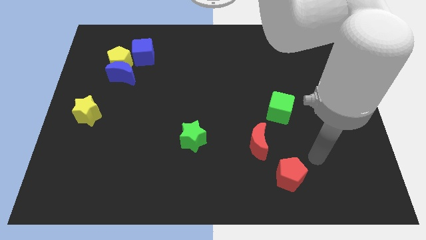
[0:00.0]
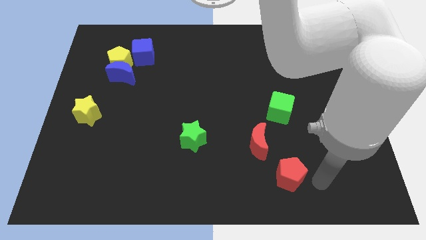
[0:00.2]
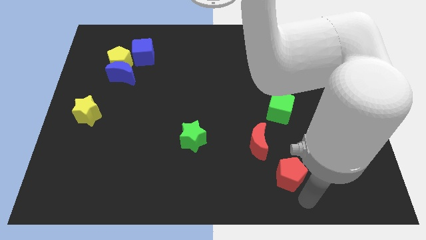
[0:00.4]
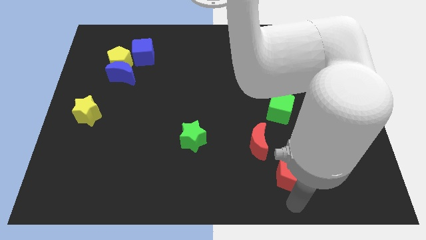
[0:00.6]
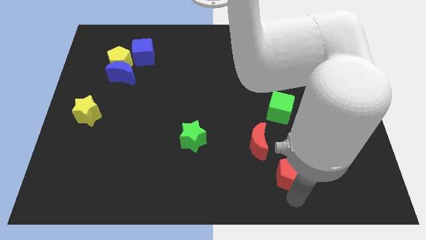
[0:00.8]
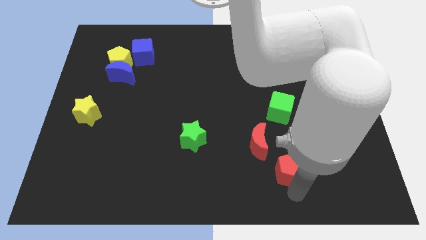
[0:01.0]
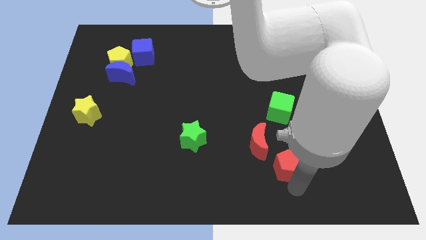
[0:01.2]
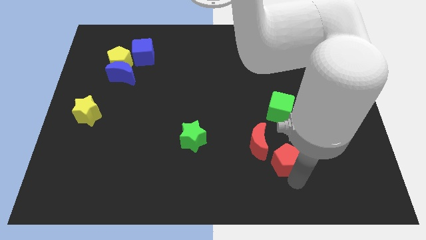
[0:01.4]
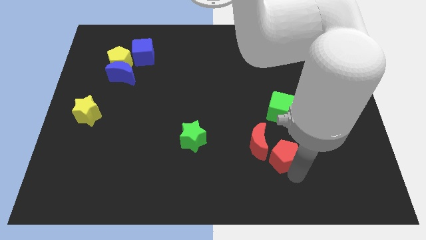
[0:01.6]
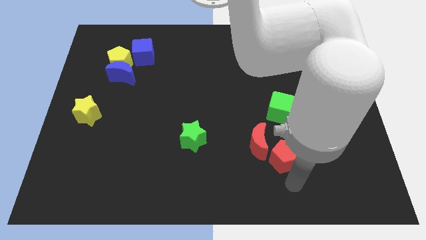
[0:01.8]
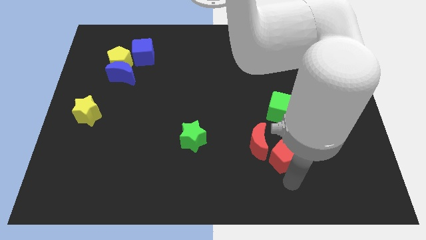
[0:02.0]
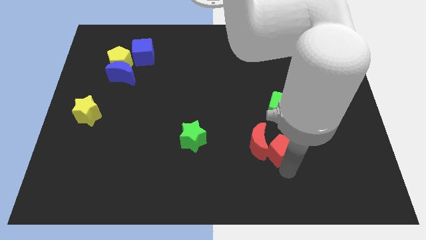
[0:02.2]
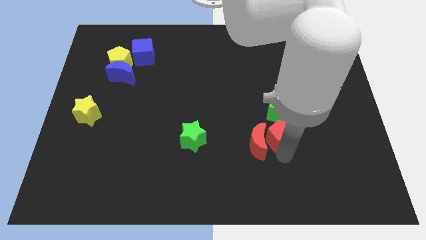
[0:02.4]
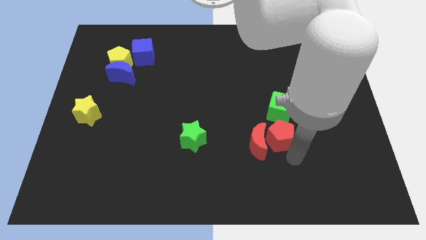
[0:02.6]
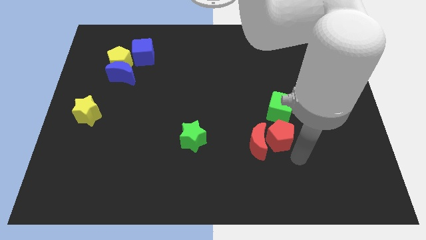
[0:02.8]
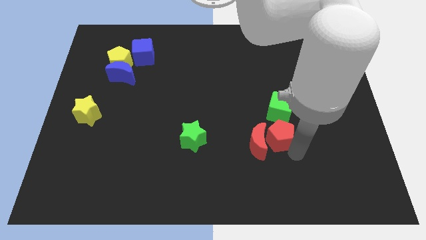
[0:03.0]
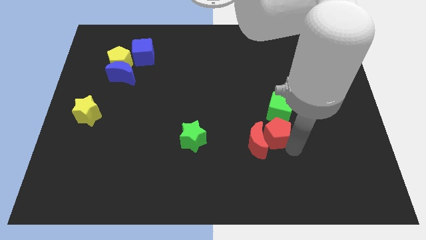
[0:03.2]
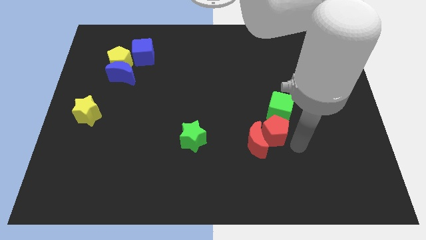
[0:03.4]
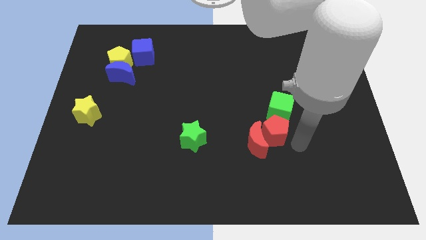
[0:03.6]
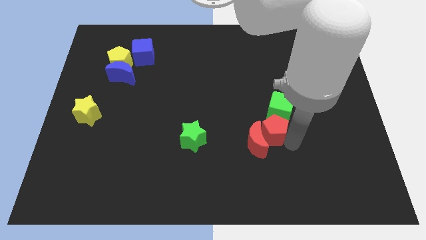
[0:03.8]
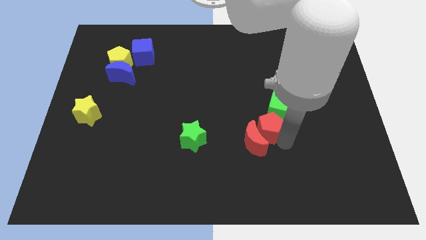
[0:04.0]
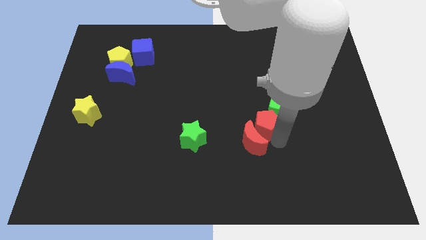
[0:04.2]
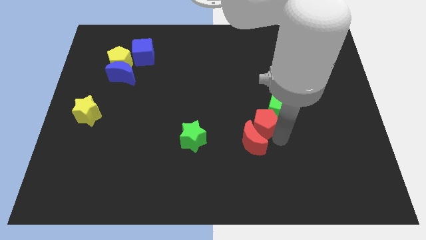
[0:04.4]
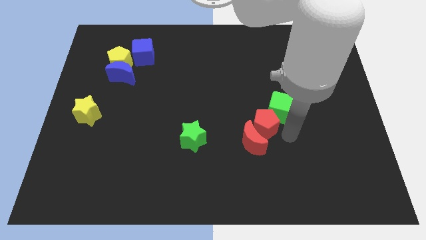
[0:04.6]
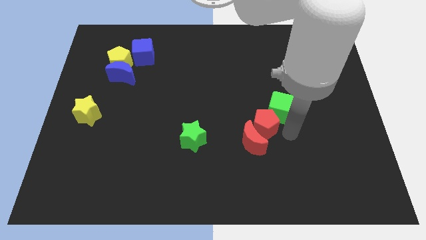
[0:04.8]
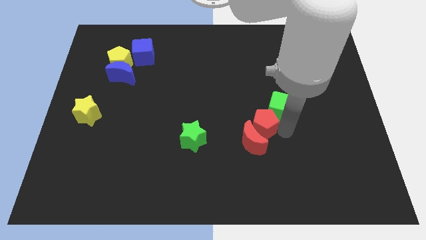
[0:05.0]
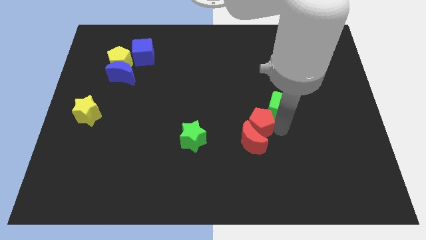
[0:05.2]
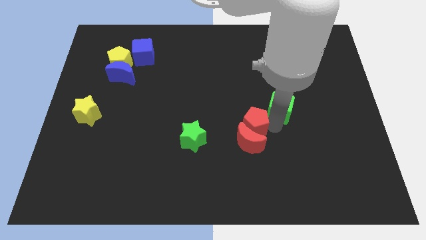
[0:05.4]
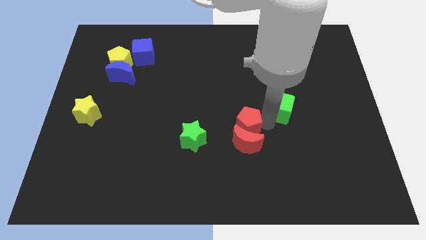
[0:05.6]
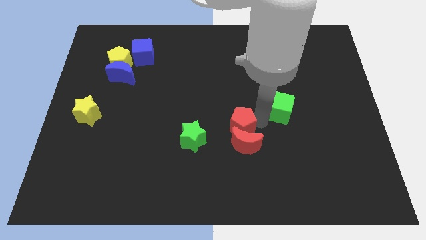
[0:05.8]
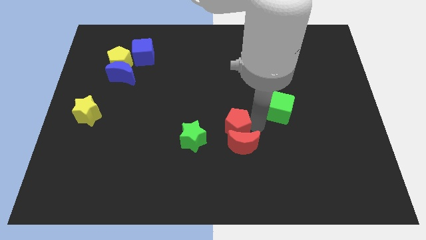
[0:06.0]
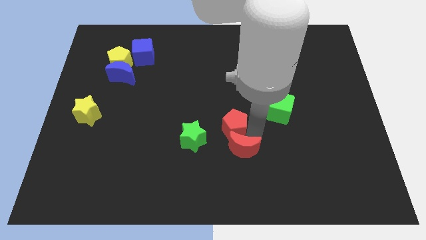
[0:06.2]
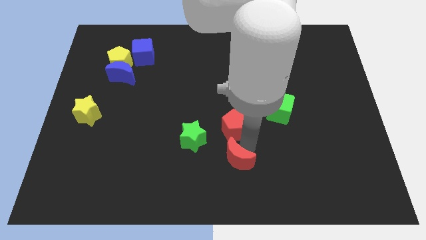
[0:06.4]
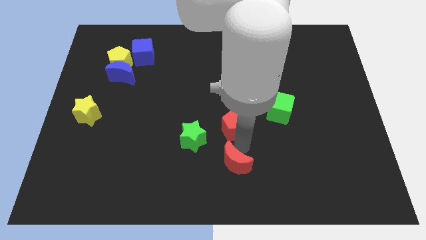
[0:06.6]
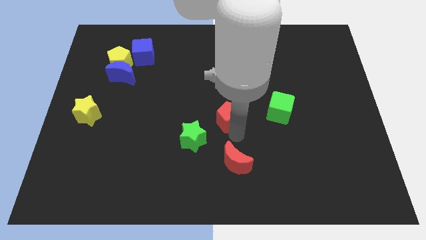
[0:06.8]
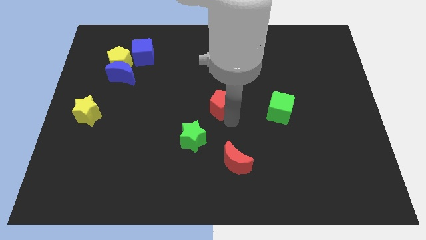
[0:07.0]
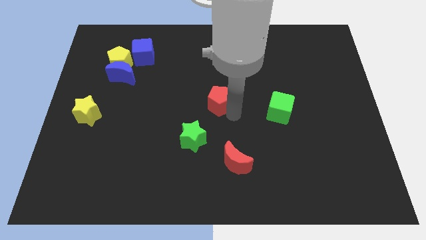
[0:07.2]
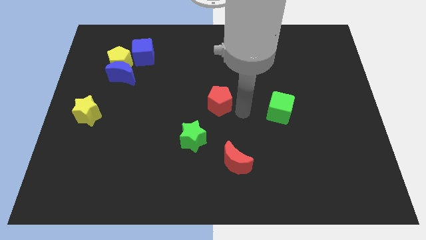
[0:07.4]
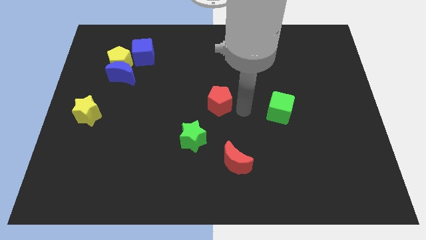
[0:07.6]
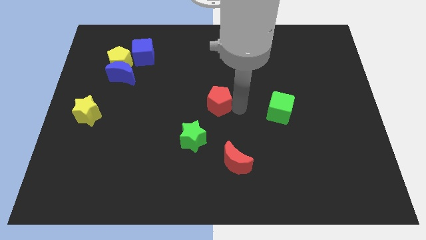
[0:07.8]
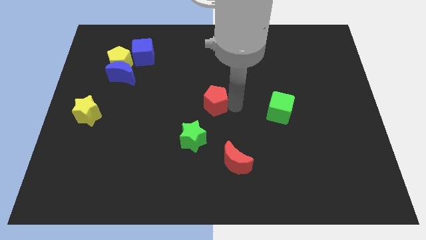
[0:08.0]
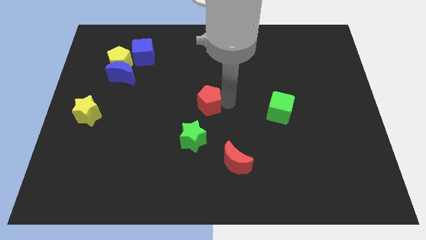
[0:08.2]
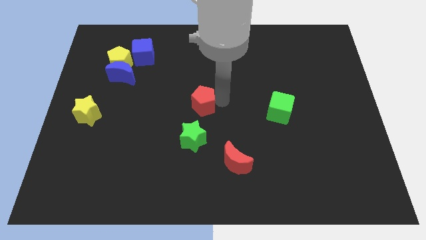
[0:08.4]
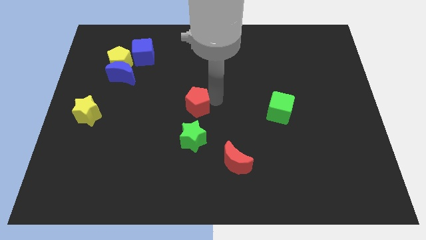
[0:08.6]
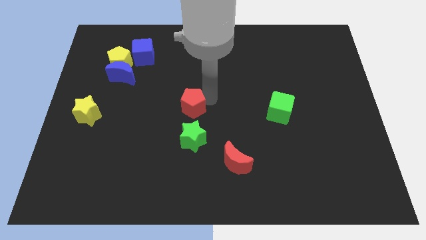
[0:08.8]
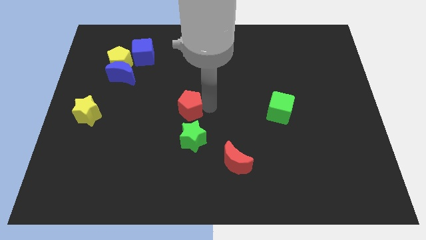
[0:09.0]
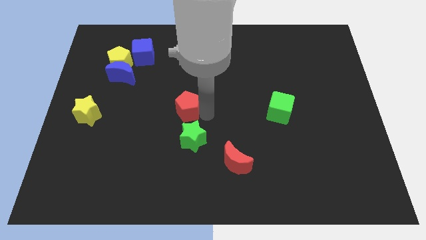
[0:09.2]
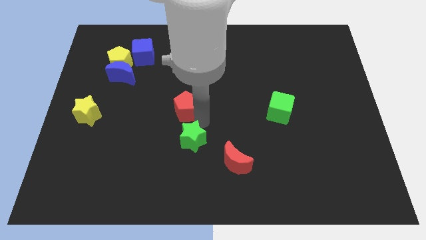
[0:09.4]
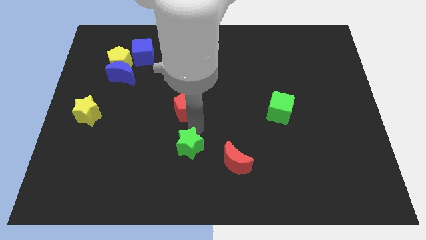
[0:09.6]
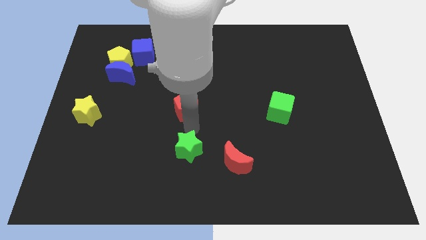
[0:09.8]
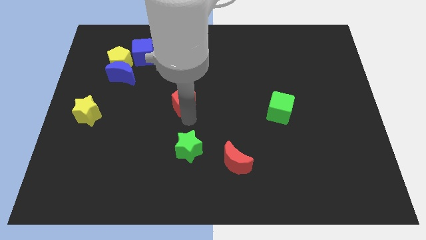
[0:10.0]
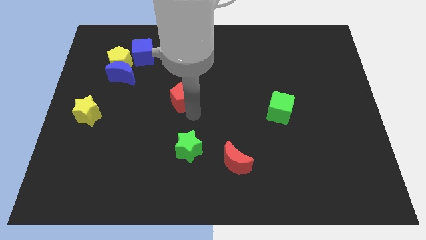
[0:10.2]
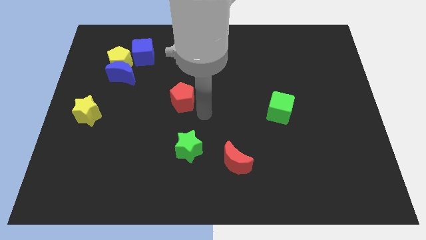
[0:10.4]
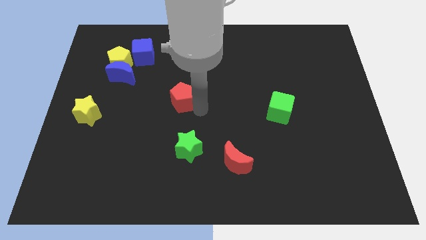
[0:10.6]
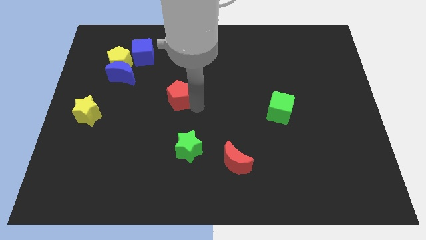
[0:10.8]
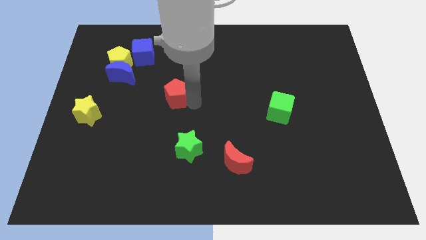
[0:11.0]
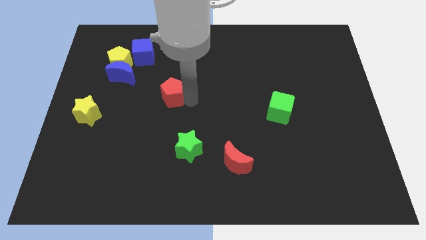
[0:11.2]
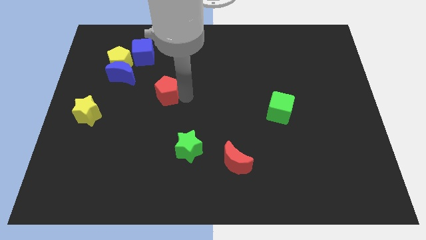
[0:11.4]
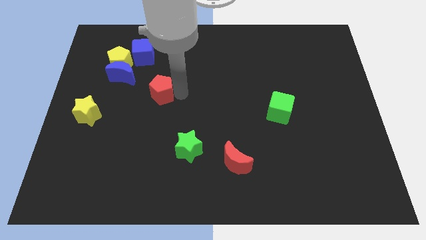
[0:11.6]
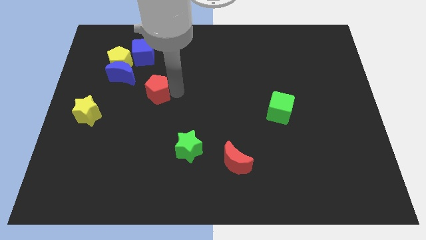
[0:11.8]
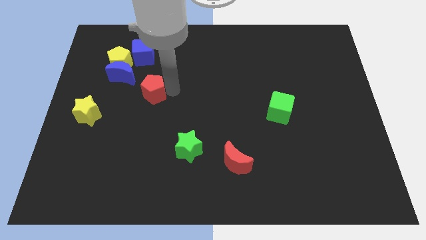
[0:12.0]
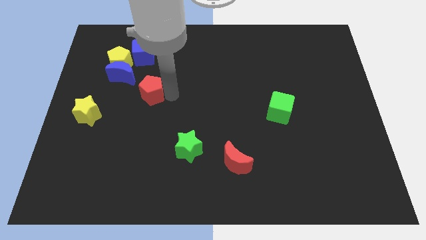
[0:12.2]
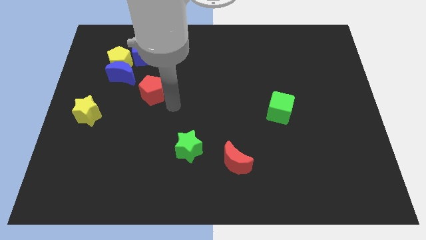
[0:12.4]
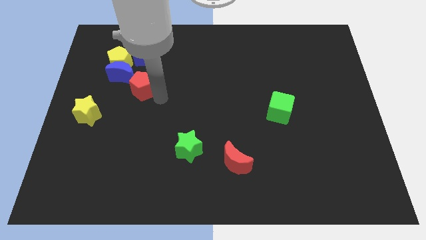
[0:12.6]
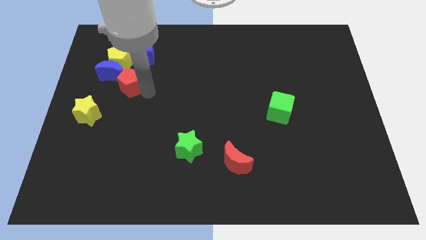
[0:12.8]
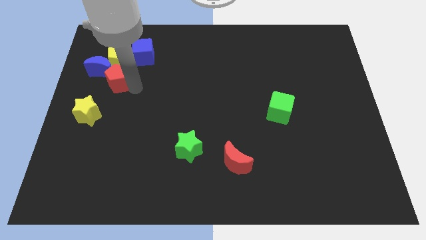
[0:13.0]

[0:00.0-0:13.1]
move the red pentagon close to the blue moon

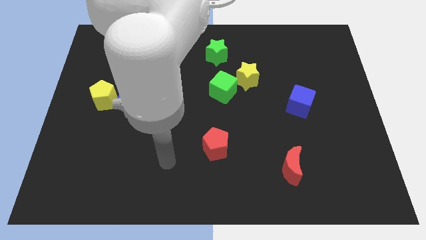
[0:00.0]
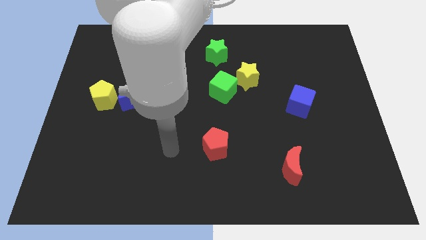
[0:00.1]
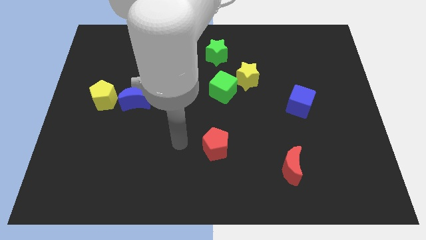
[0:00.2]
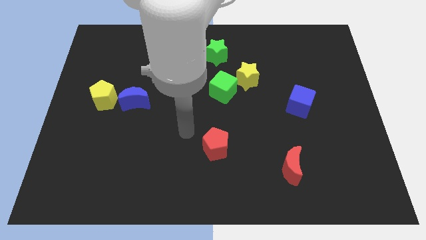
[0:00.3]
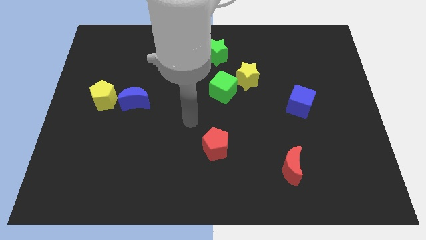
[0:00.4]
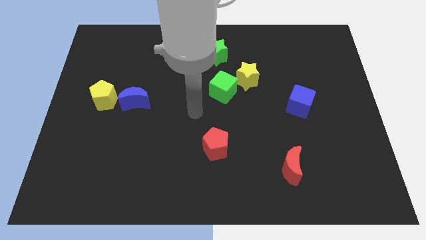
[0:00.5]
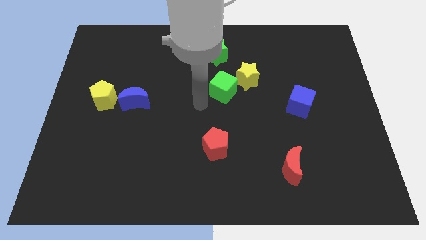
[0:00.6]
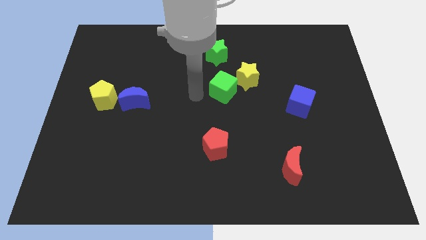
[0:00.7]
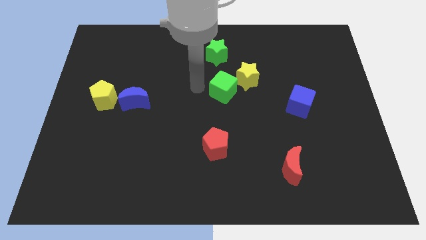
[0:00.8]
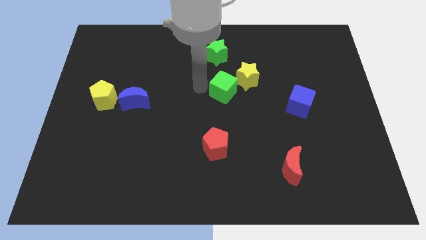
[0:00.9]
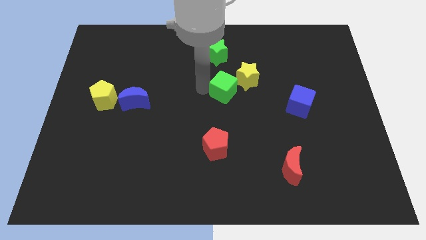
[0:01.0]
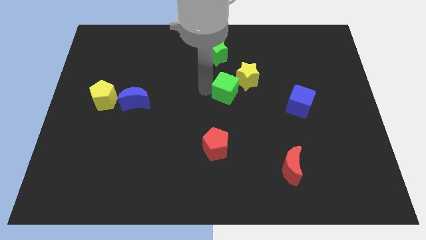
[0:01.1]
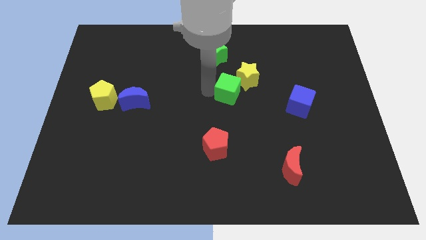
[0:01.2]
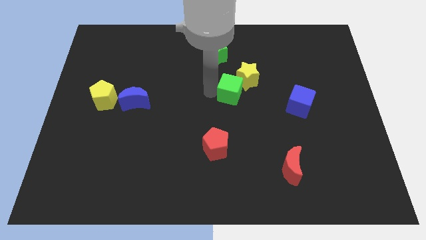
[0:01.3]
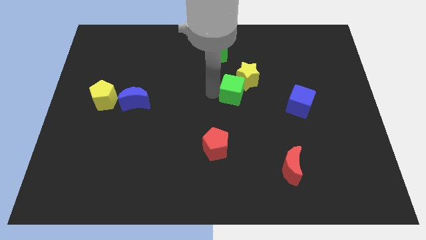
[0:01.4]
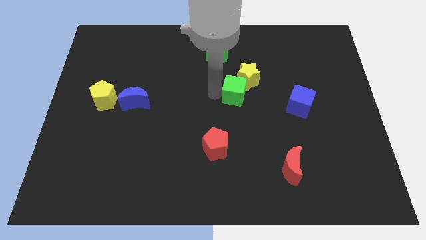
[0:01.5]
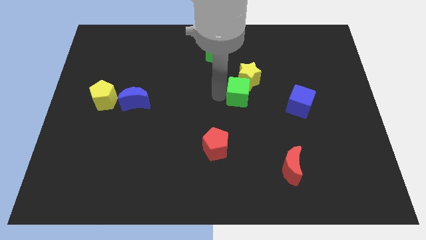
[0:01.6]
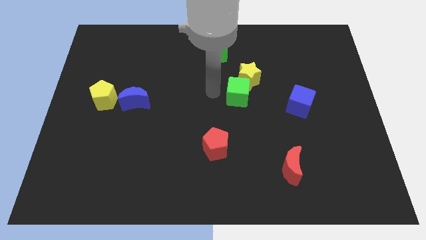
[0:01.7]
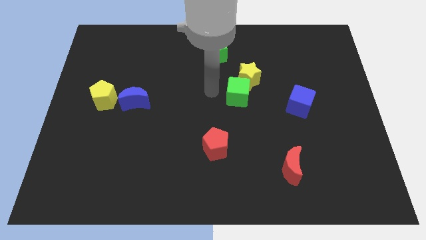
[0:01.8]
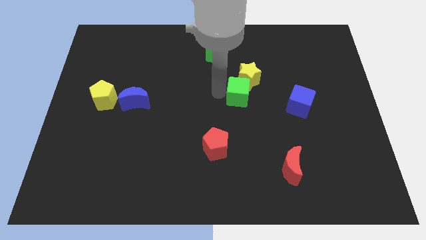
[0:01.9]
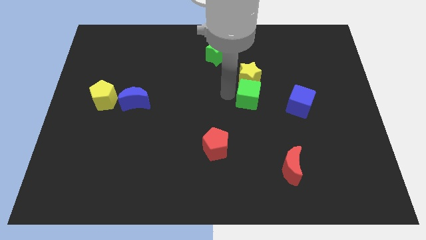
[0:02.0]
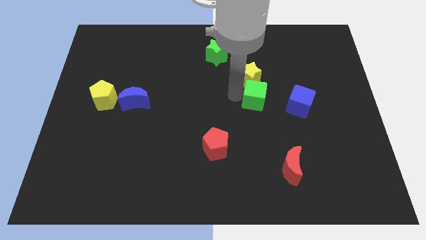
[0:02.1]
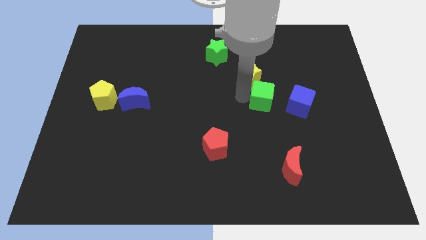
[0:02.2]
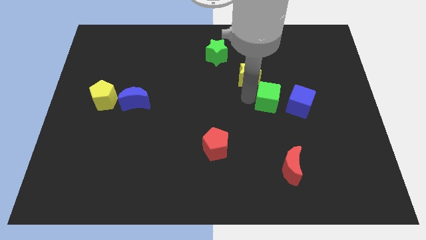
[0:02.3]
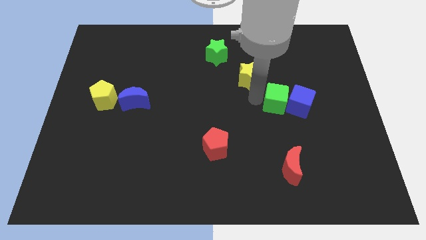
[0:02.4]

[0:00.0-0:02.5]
slide the green cube next to the blue cube
